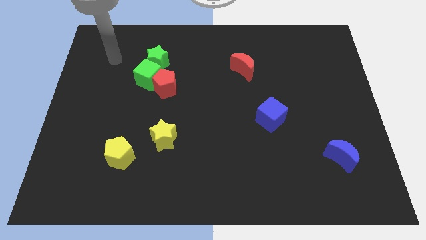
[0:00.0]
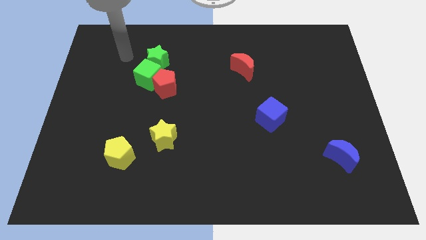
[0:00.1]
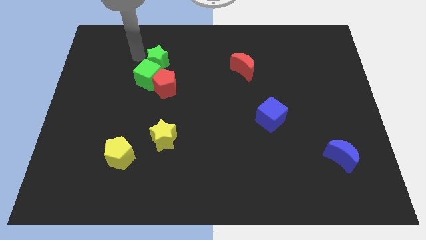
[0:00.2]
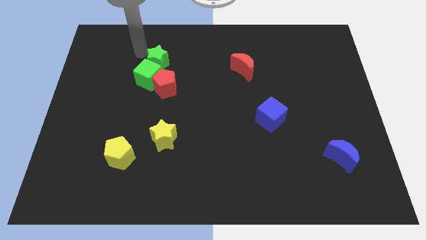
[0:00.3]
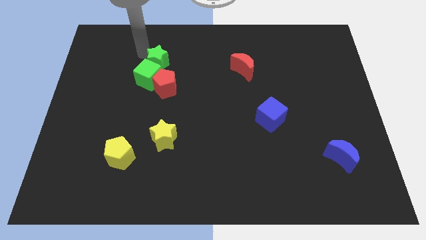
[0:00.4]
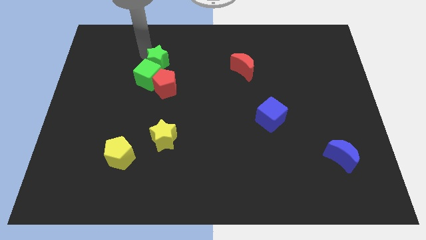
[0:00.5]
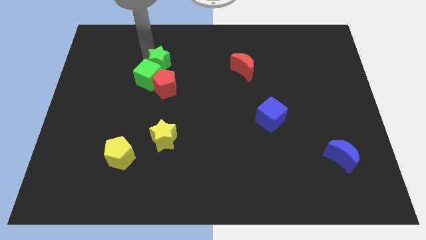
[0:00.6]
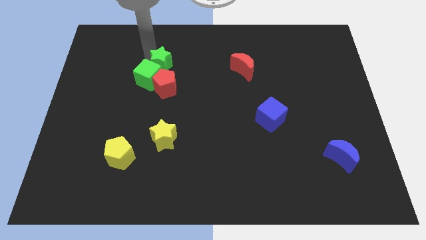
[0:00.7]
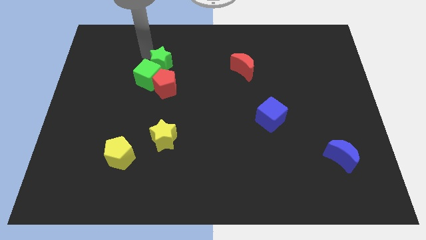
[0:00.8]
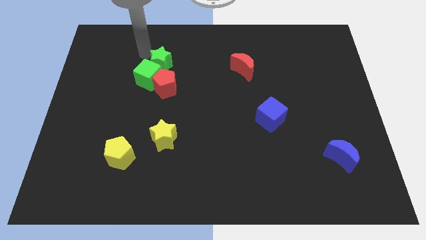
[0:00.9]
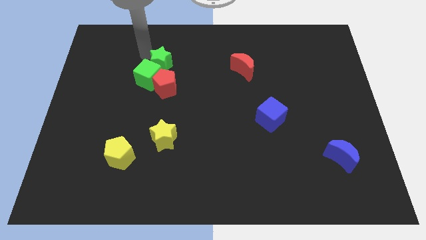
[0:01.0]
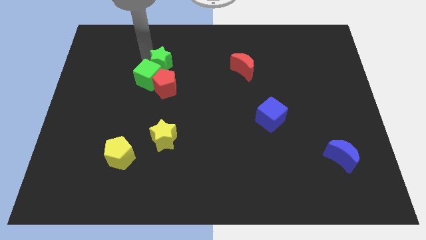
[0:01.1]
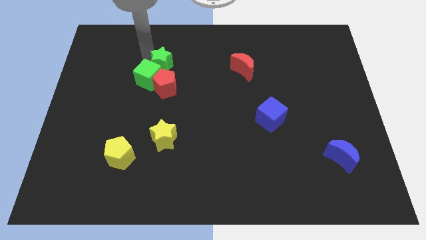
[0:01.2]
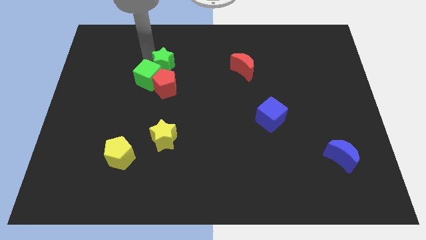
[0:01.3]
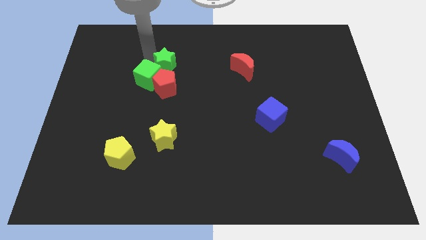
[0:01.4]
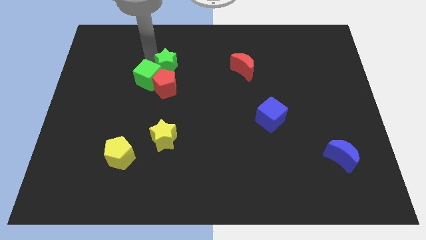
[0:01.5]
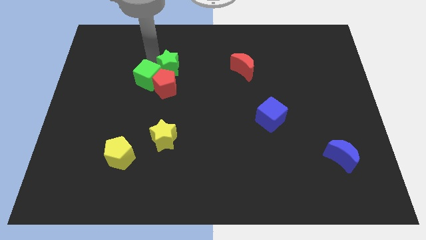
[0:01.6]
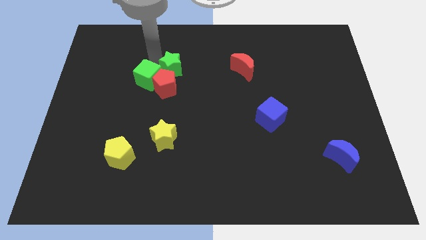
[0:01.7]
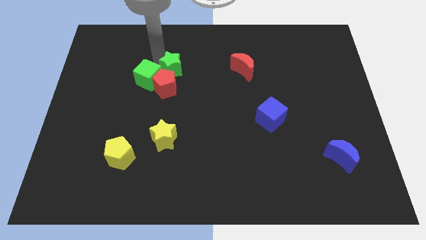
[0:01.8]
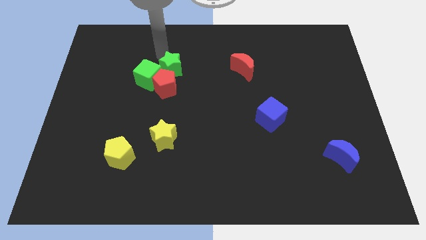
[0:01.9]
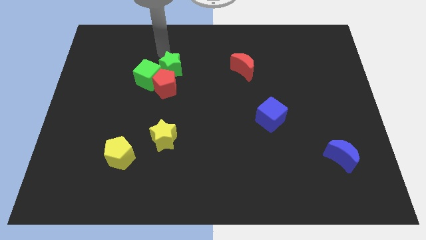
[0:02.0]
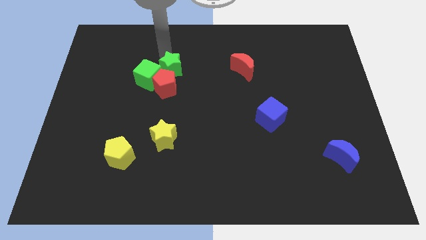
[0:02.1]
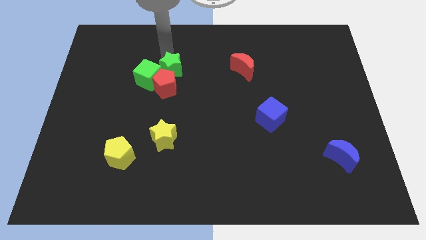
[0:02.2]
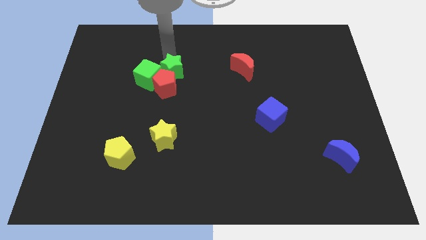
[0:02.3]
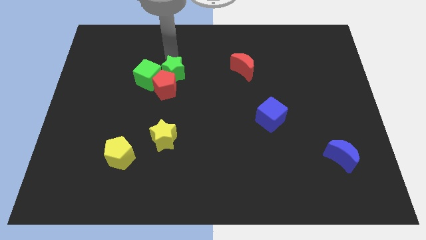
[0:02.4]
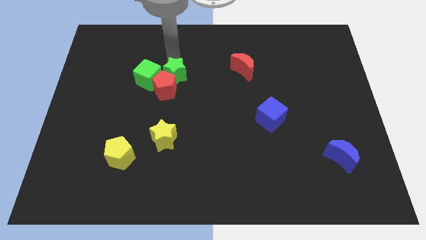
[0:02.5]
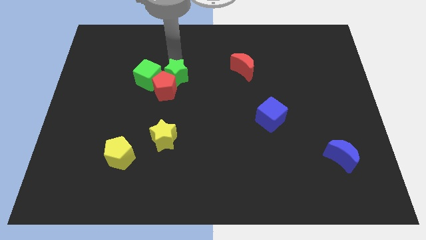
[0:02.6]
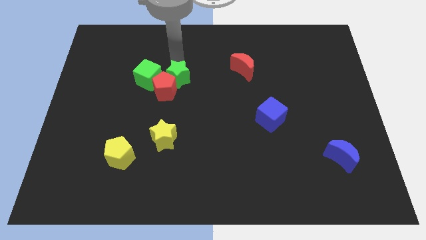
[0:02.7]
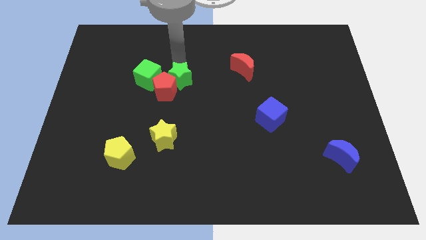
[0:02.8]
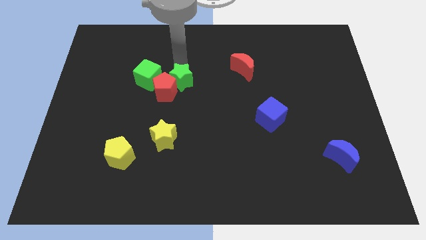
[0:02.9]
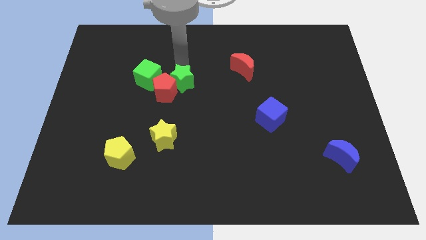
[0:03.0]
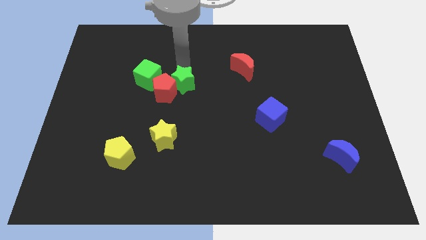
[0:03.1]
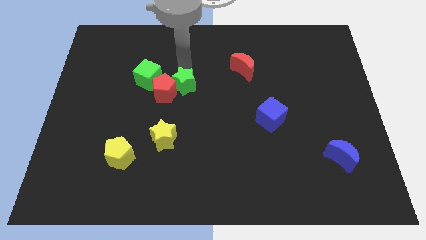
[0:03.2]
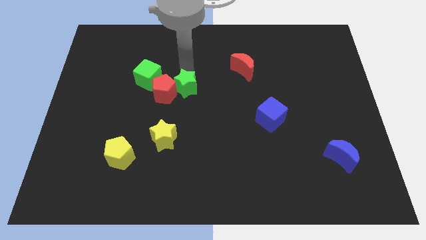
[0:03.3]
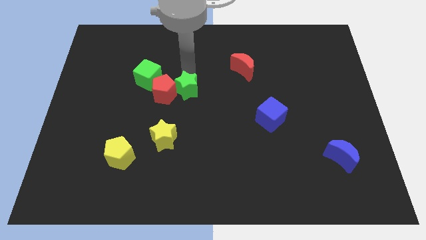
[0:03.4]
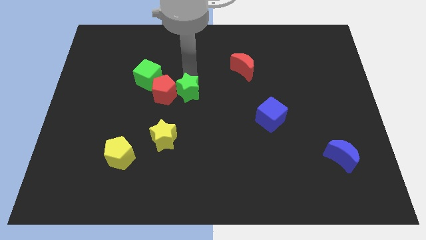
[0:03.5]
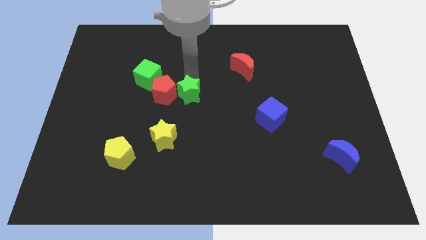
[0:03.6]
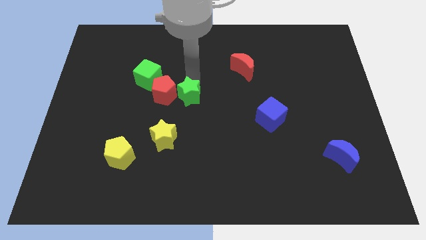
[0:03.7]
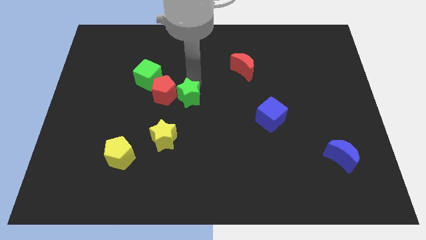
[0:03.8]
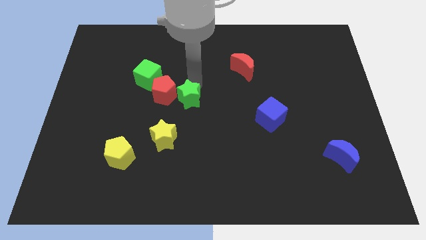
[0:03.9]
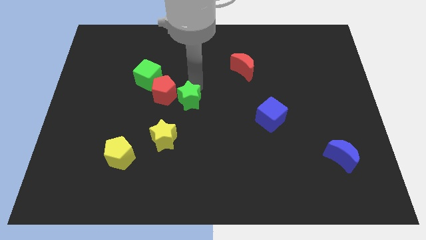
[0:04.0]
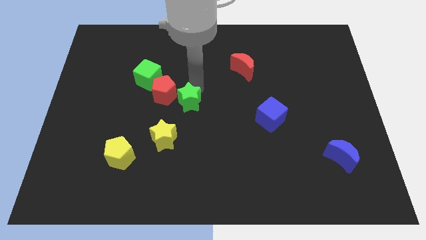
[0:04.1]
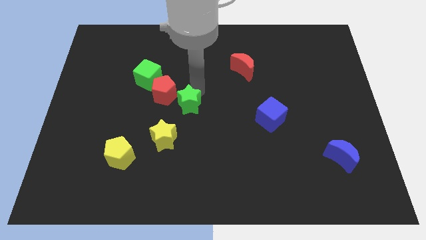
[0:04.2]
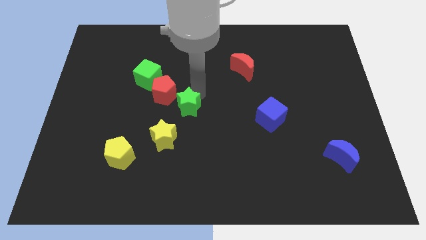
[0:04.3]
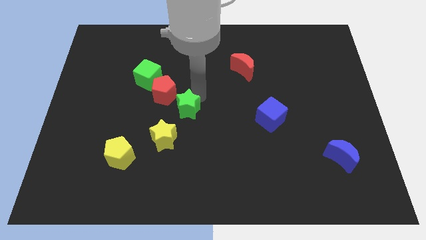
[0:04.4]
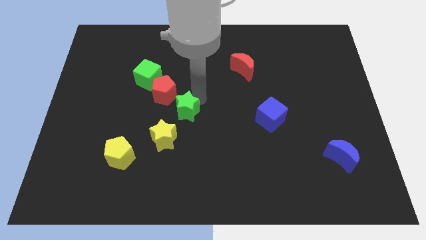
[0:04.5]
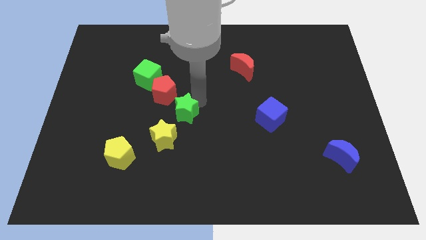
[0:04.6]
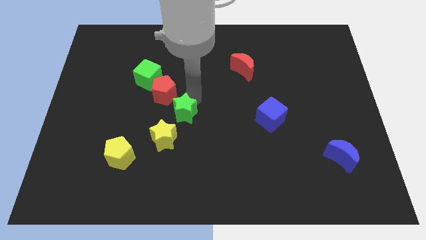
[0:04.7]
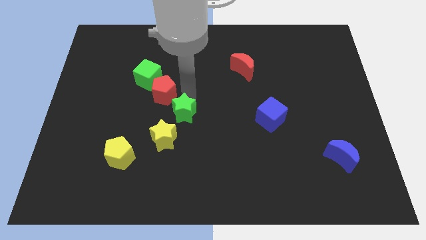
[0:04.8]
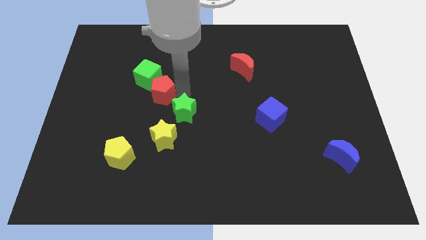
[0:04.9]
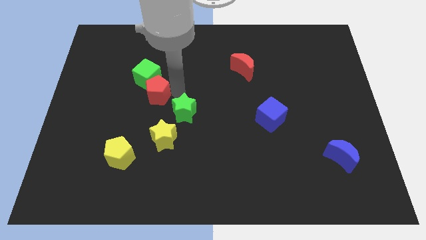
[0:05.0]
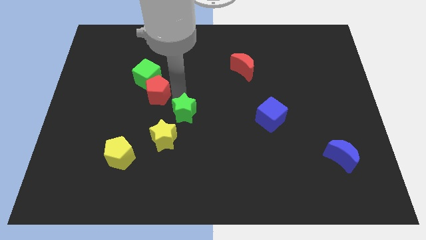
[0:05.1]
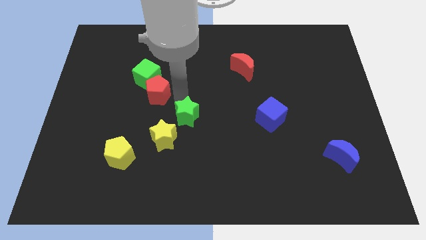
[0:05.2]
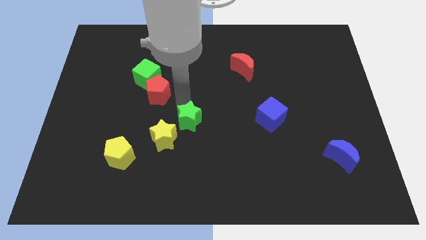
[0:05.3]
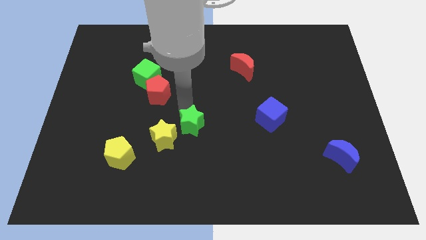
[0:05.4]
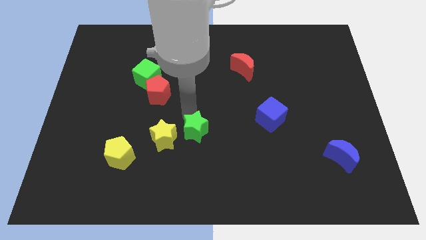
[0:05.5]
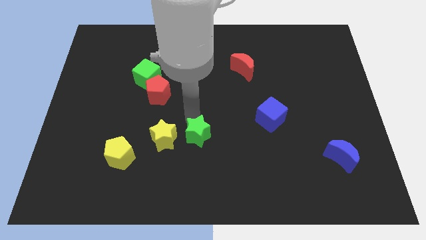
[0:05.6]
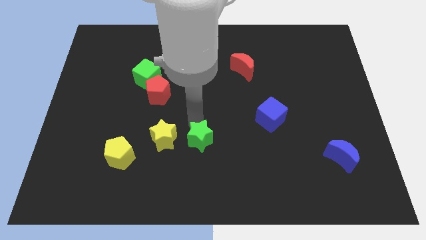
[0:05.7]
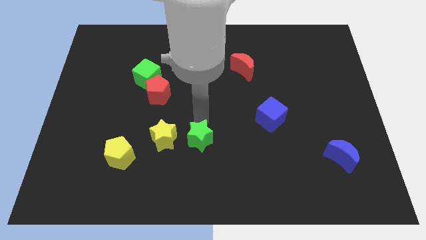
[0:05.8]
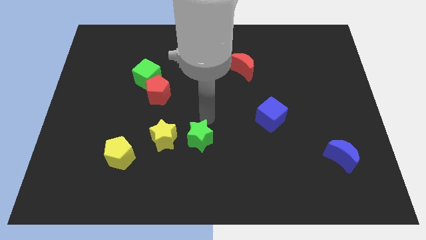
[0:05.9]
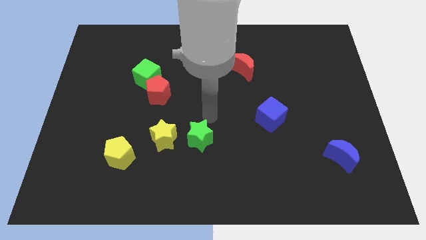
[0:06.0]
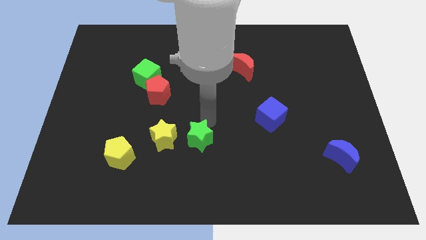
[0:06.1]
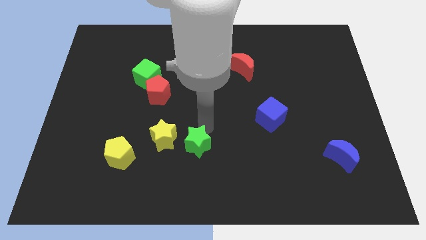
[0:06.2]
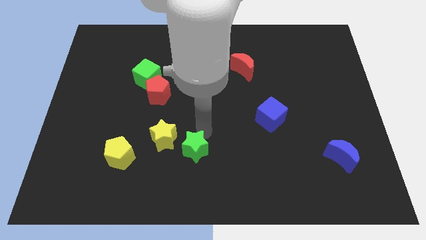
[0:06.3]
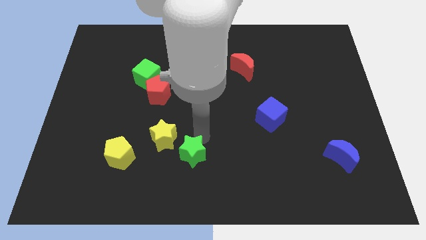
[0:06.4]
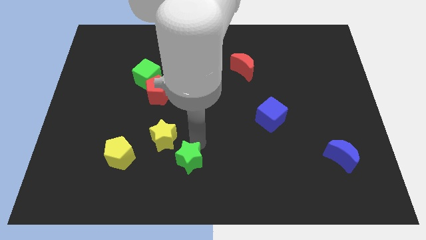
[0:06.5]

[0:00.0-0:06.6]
slide the green star to the bottom
